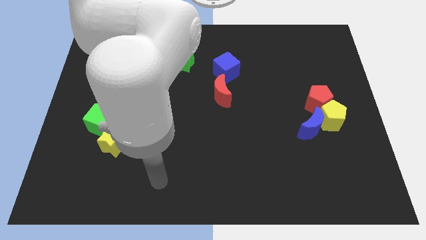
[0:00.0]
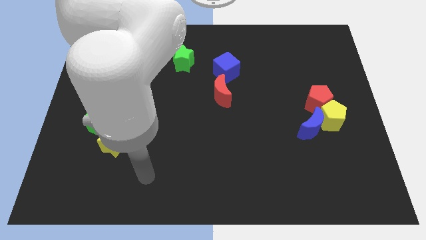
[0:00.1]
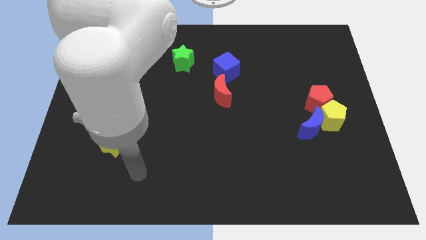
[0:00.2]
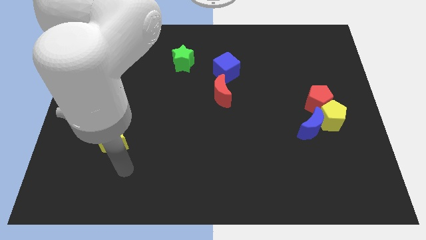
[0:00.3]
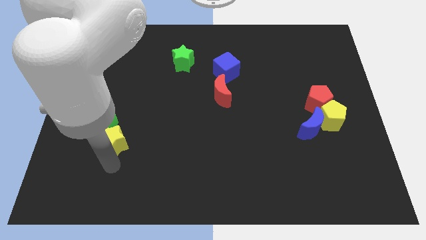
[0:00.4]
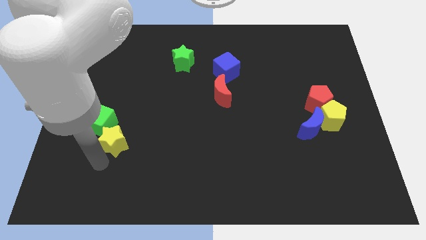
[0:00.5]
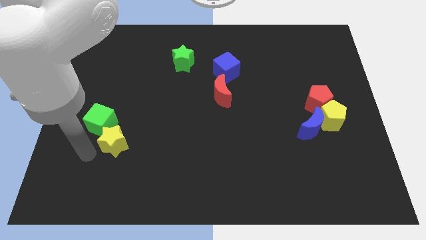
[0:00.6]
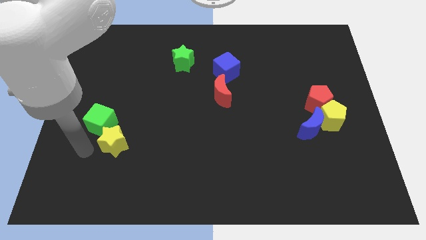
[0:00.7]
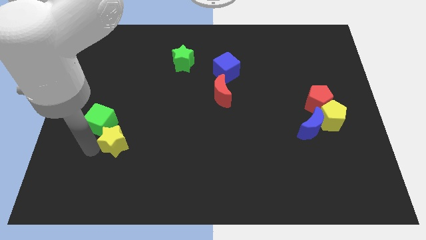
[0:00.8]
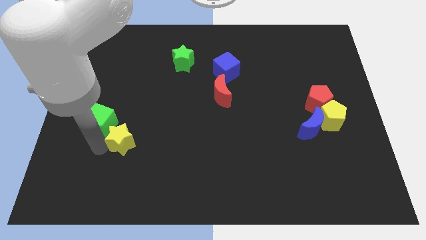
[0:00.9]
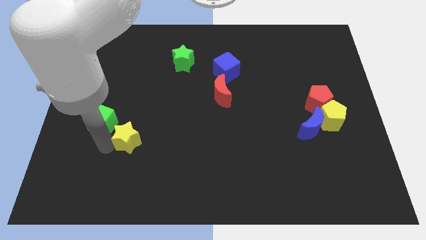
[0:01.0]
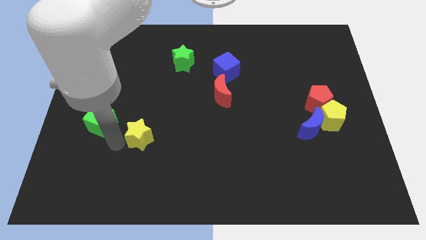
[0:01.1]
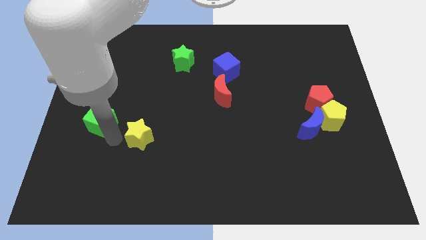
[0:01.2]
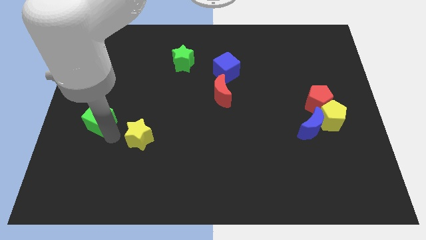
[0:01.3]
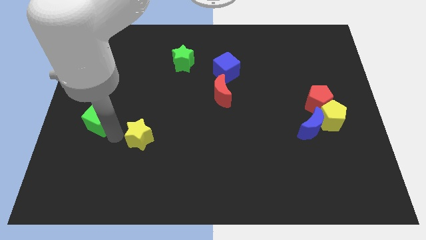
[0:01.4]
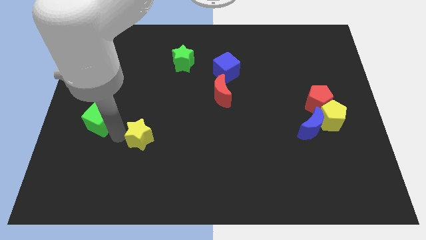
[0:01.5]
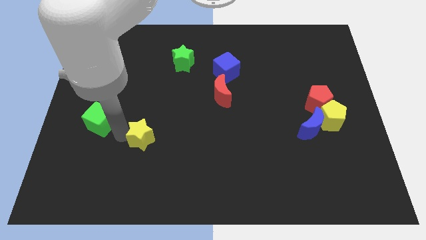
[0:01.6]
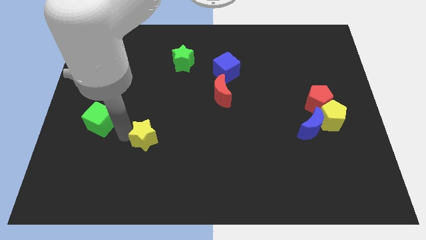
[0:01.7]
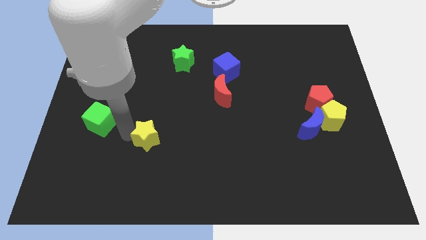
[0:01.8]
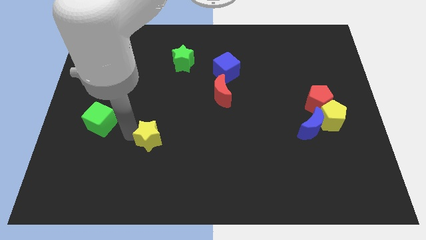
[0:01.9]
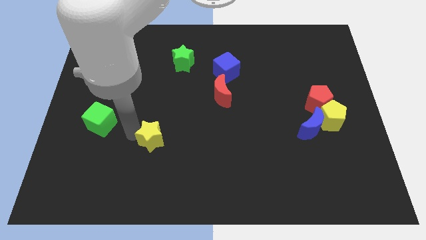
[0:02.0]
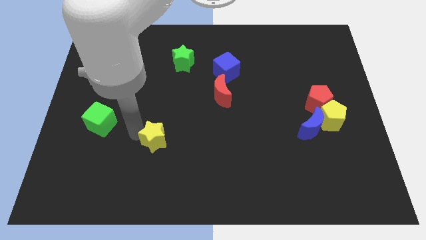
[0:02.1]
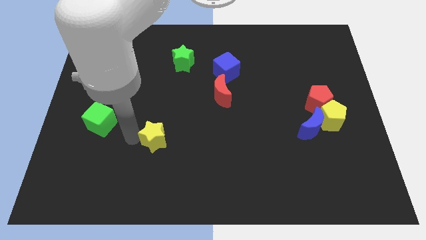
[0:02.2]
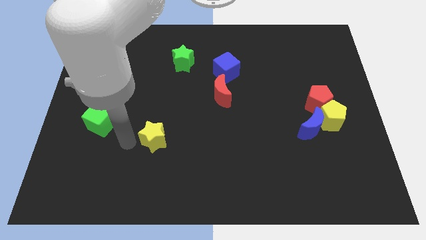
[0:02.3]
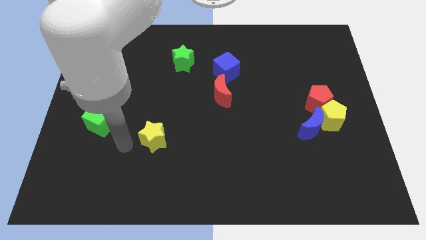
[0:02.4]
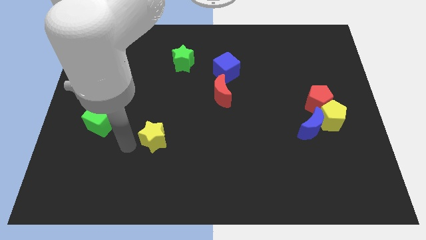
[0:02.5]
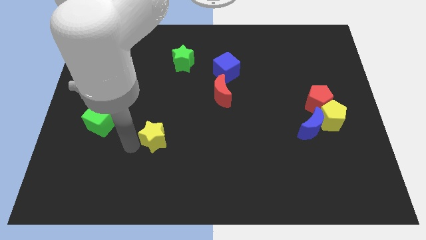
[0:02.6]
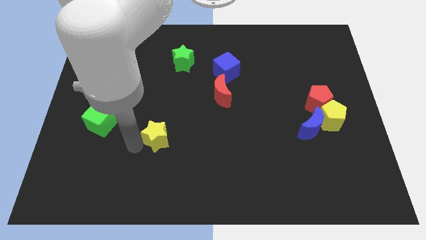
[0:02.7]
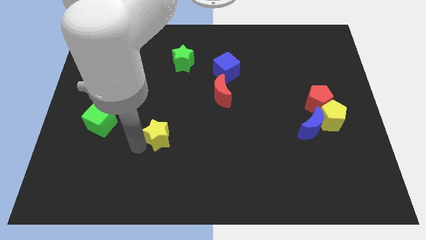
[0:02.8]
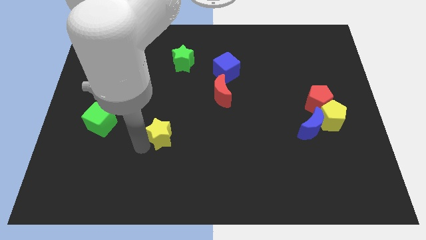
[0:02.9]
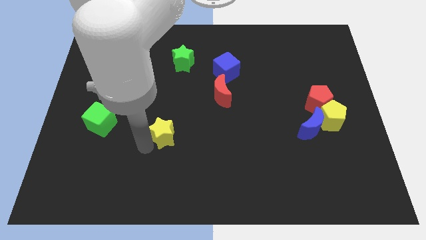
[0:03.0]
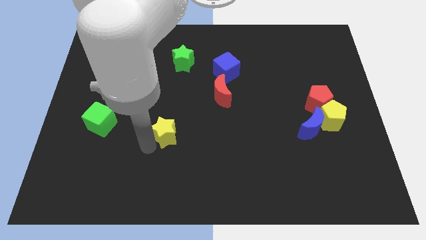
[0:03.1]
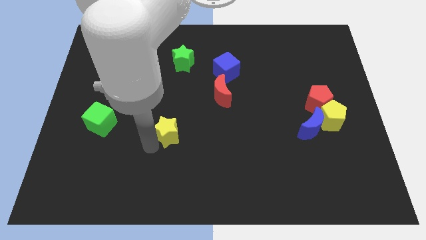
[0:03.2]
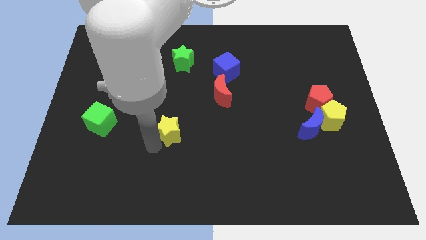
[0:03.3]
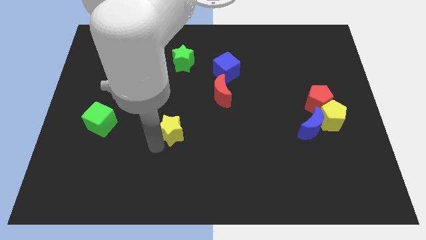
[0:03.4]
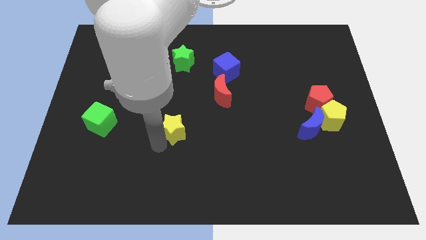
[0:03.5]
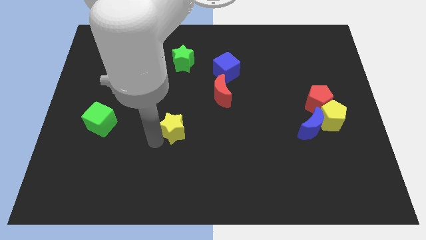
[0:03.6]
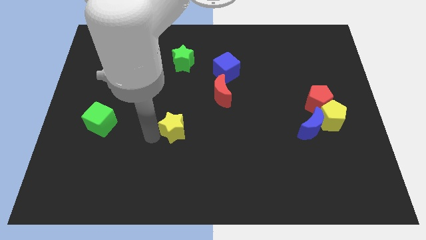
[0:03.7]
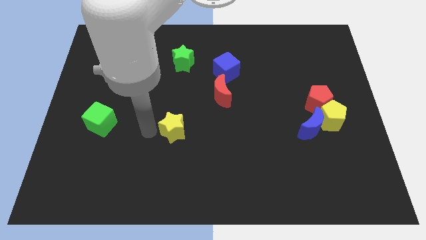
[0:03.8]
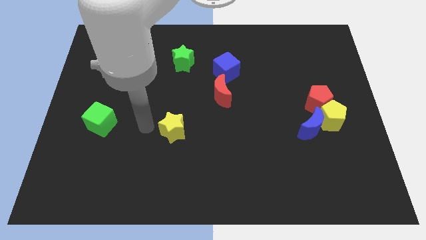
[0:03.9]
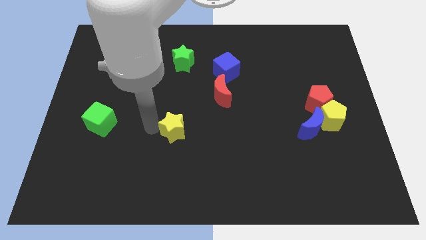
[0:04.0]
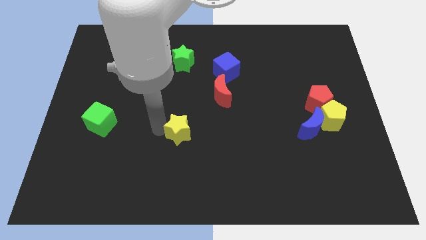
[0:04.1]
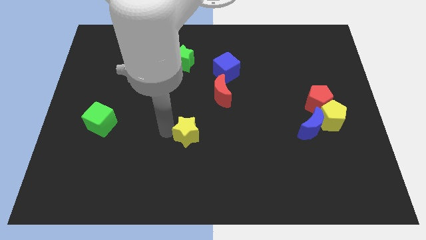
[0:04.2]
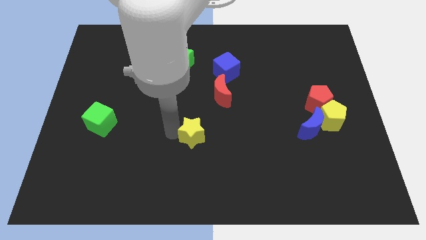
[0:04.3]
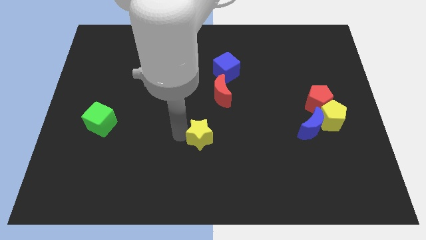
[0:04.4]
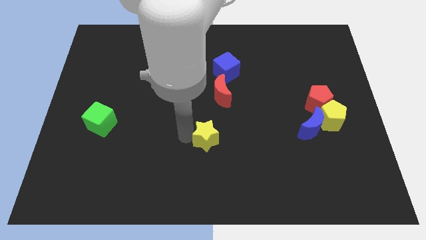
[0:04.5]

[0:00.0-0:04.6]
slide the yellow star right

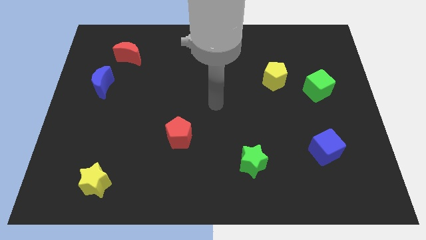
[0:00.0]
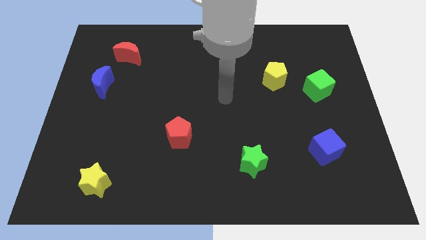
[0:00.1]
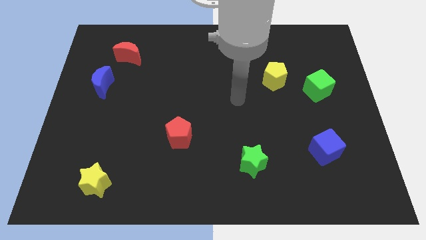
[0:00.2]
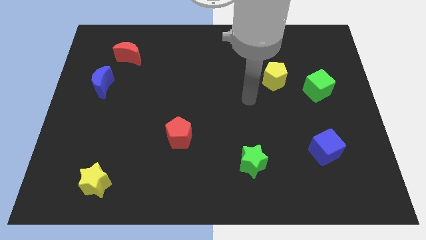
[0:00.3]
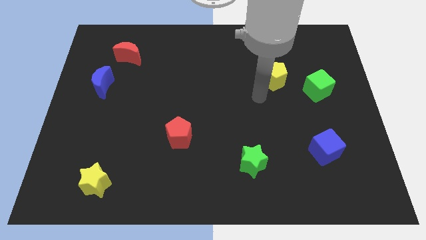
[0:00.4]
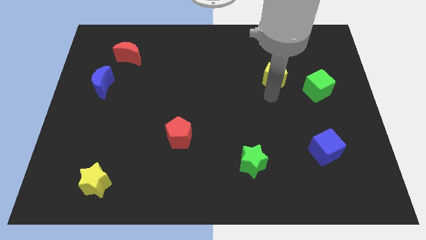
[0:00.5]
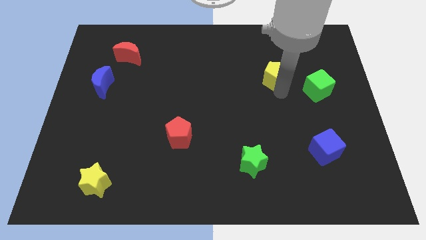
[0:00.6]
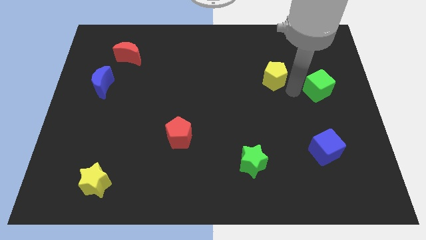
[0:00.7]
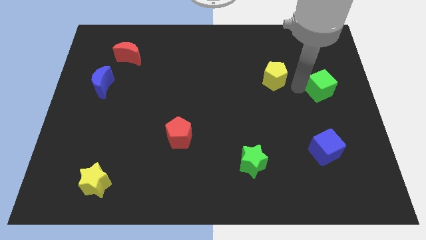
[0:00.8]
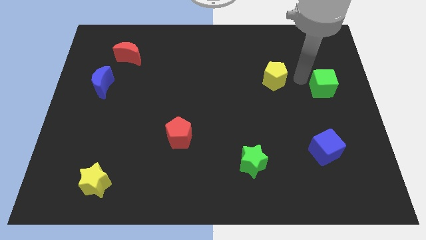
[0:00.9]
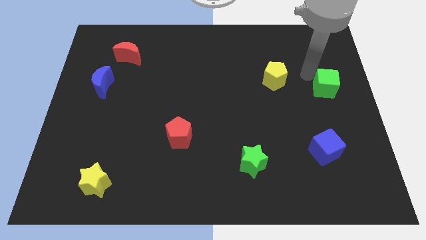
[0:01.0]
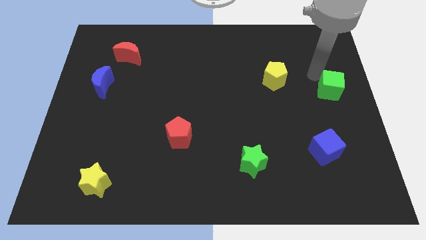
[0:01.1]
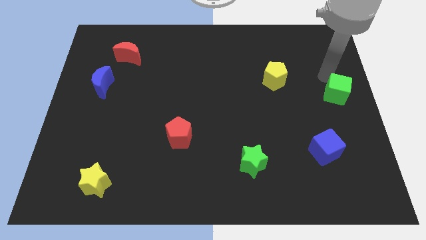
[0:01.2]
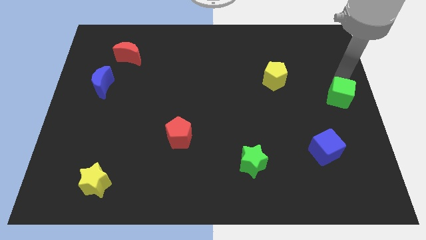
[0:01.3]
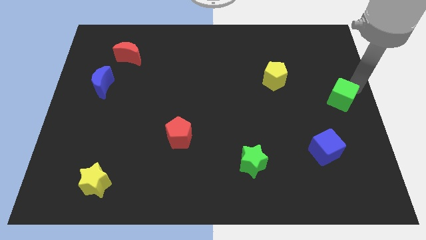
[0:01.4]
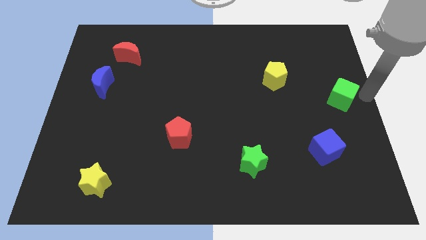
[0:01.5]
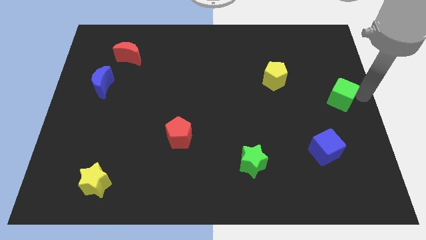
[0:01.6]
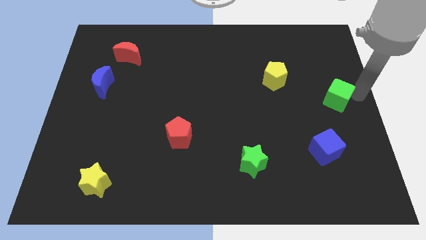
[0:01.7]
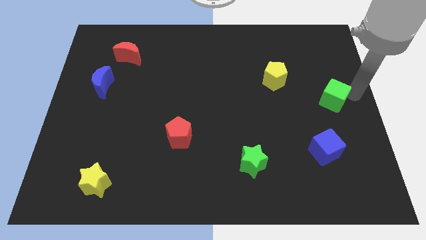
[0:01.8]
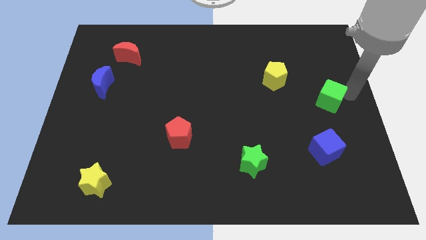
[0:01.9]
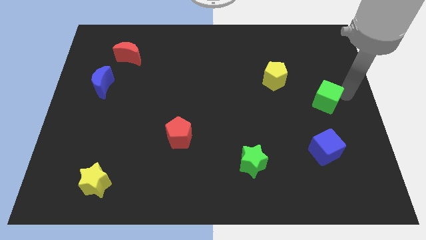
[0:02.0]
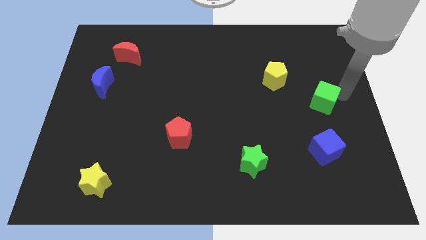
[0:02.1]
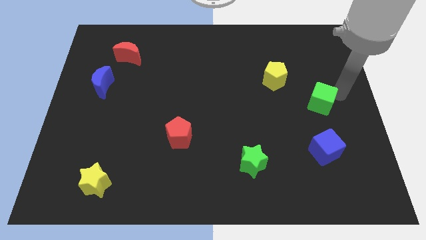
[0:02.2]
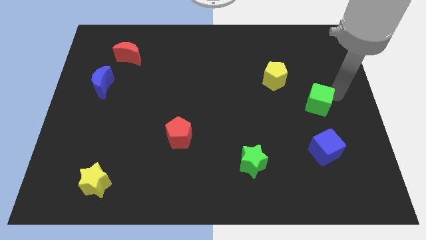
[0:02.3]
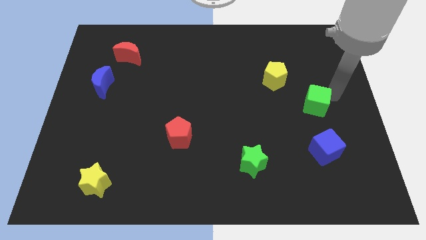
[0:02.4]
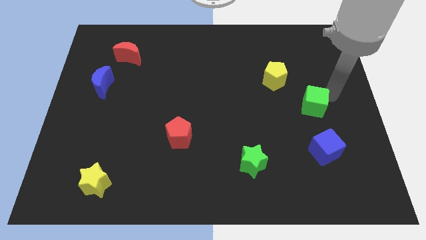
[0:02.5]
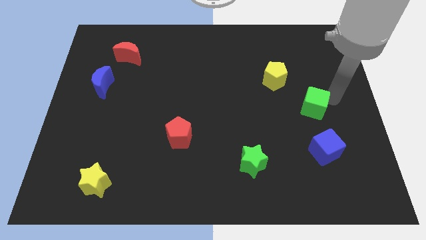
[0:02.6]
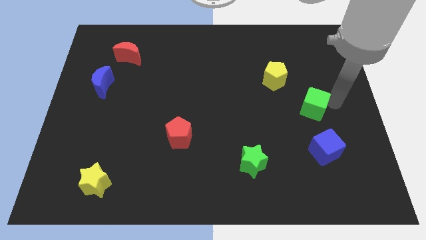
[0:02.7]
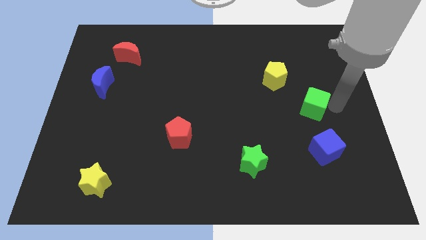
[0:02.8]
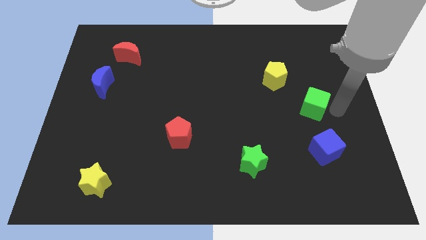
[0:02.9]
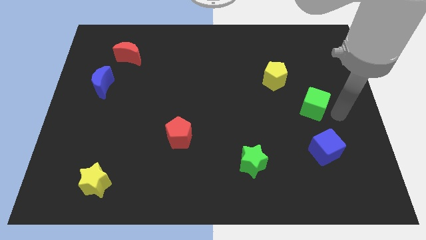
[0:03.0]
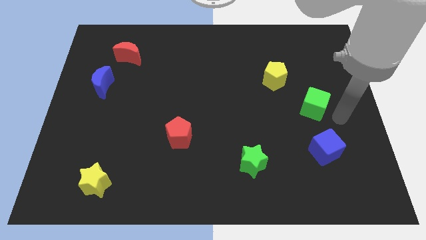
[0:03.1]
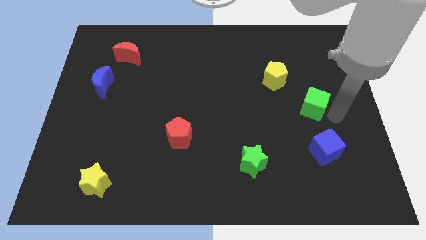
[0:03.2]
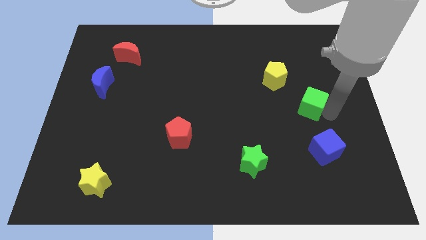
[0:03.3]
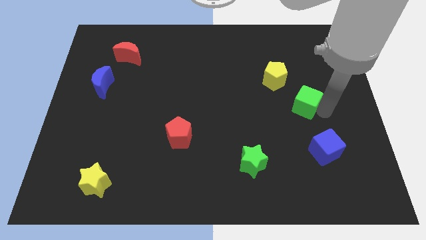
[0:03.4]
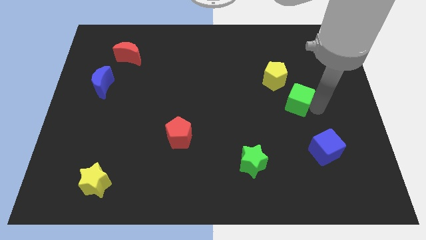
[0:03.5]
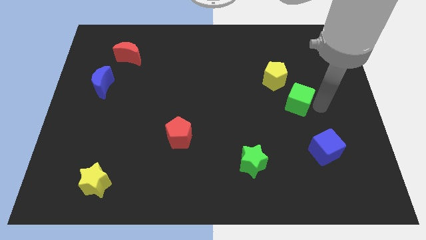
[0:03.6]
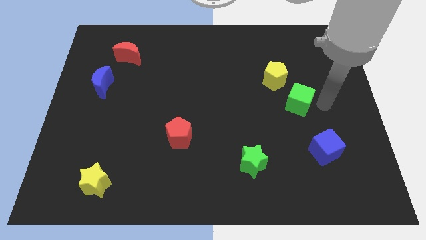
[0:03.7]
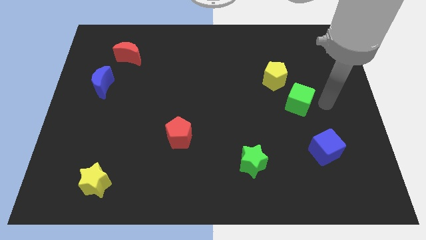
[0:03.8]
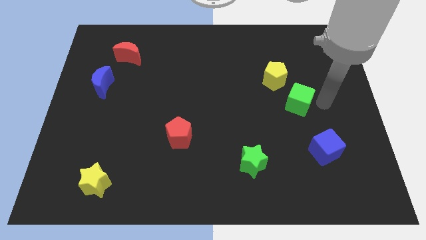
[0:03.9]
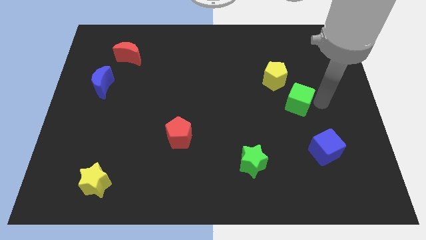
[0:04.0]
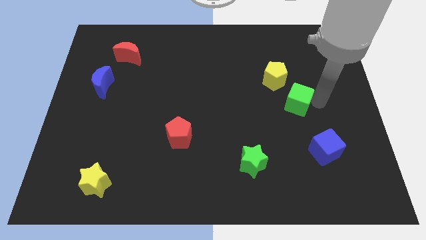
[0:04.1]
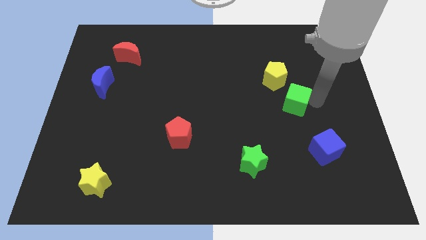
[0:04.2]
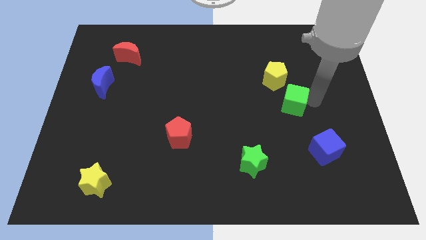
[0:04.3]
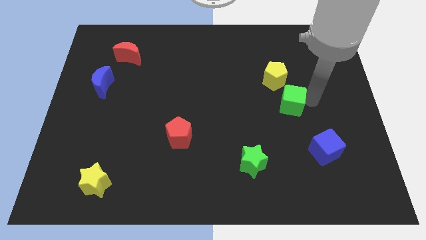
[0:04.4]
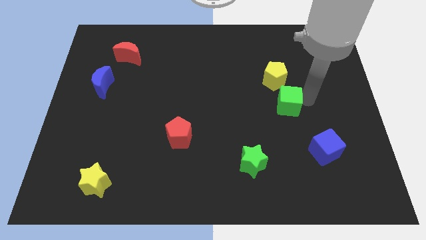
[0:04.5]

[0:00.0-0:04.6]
slide the green cube to the left a bit
